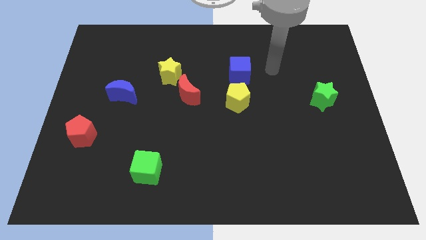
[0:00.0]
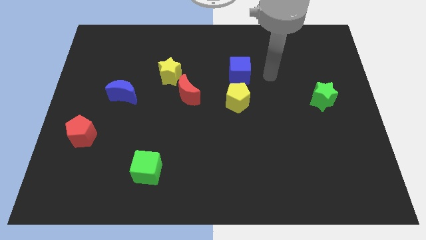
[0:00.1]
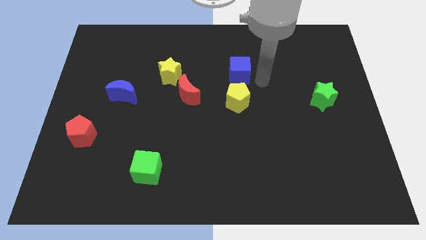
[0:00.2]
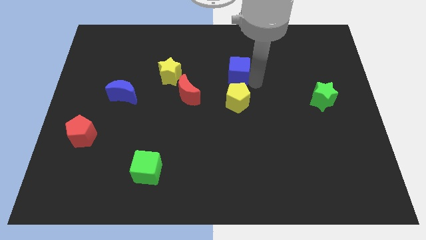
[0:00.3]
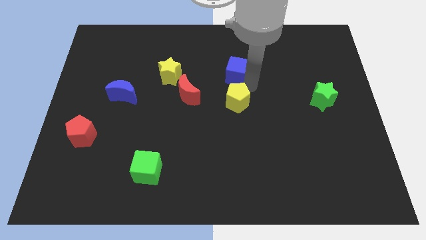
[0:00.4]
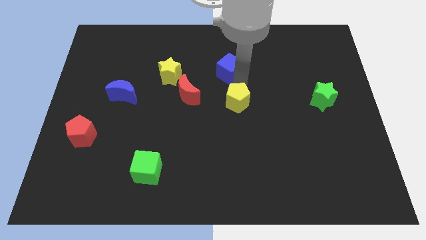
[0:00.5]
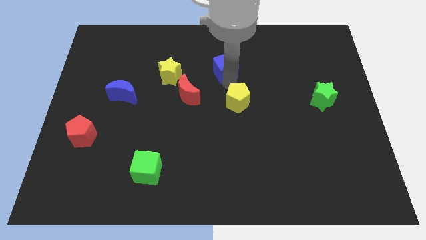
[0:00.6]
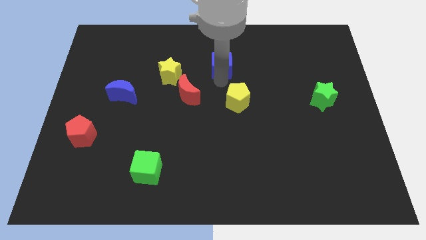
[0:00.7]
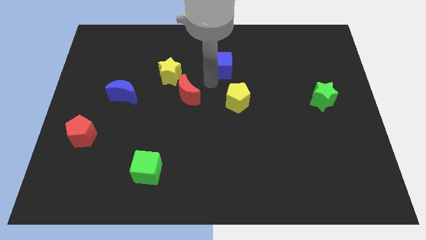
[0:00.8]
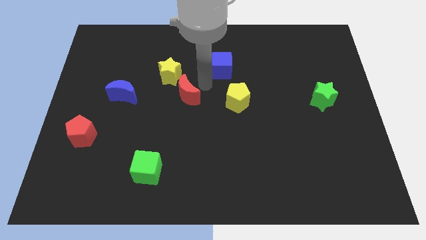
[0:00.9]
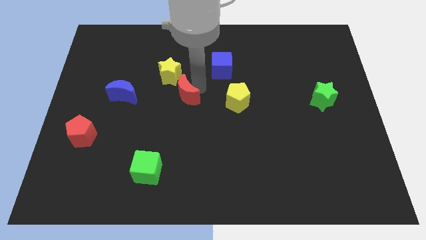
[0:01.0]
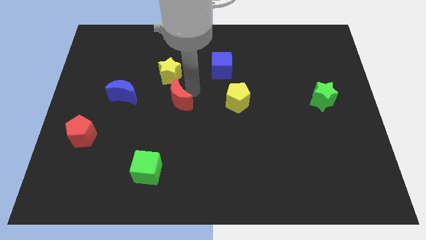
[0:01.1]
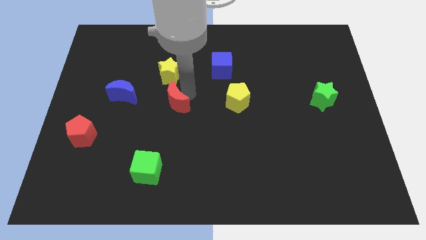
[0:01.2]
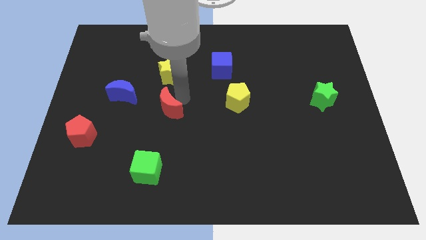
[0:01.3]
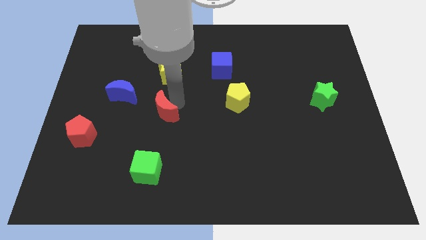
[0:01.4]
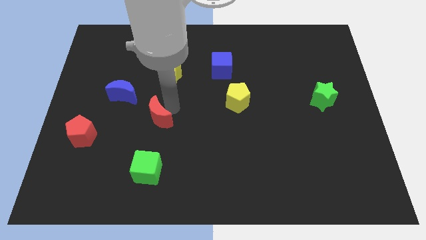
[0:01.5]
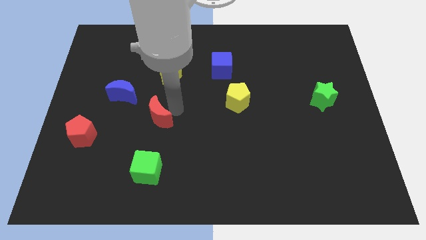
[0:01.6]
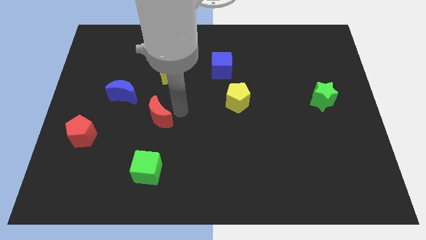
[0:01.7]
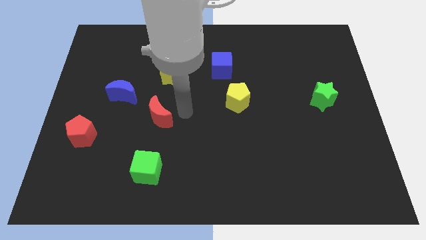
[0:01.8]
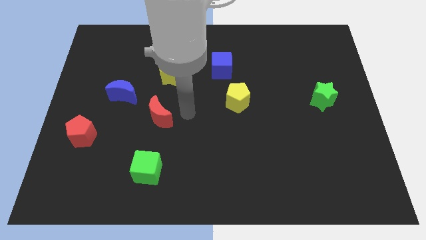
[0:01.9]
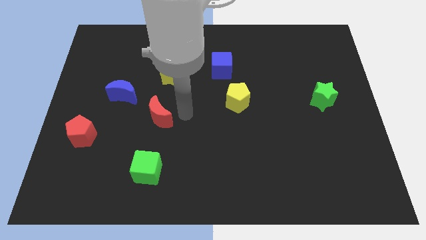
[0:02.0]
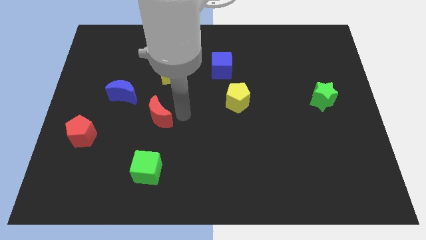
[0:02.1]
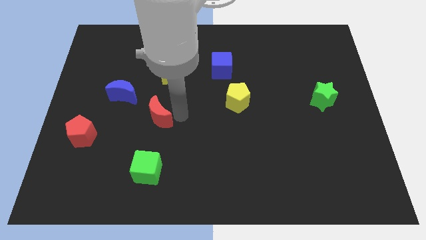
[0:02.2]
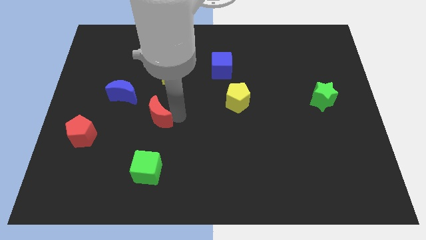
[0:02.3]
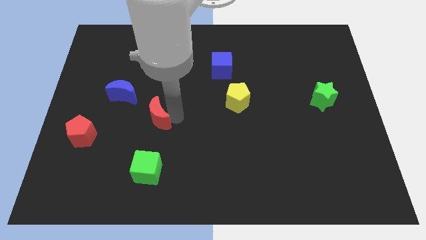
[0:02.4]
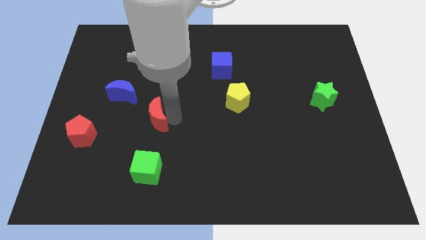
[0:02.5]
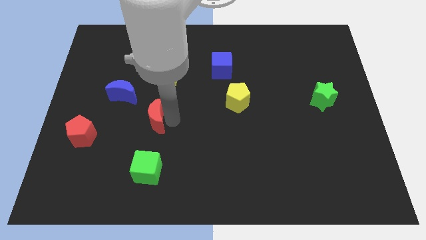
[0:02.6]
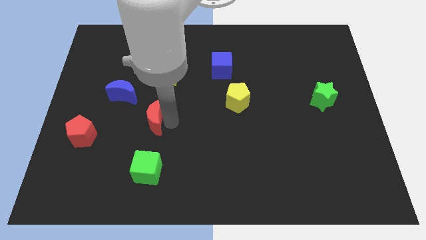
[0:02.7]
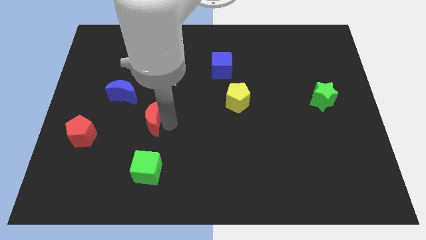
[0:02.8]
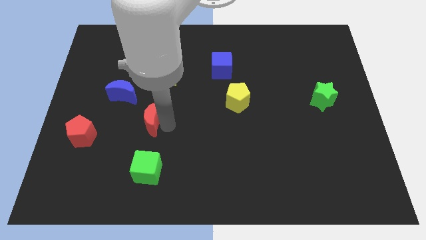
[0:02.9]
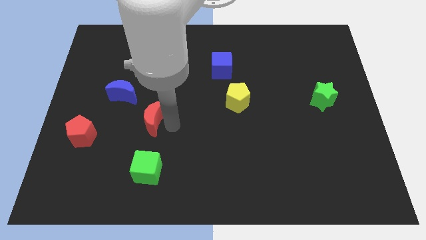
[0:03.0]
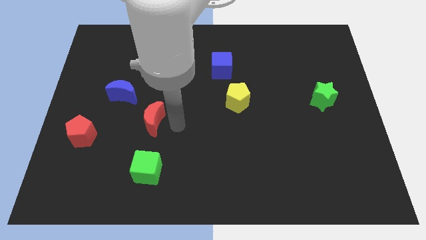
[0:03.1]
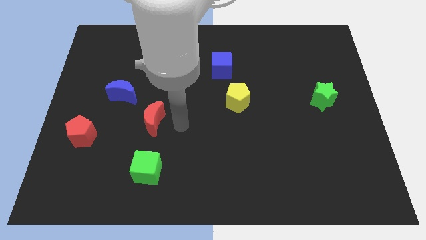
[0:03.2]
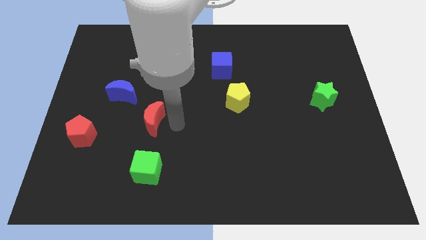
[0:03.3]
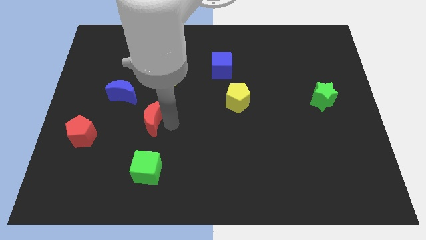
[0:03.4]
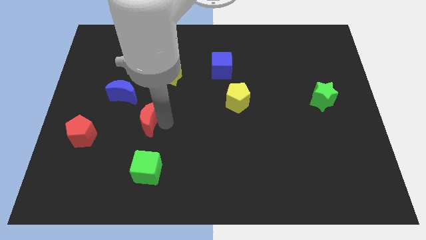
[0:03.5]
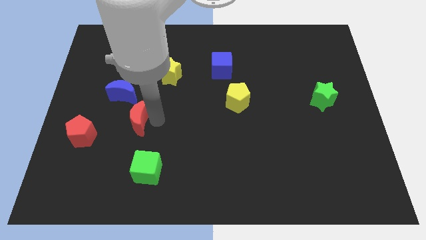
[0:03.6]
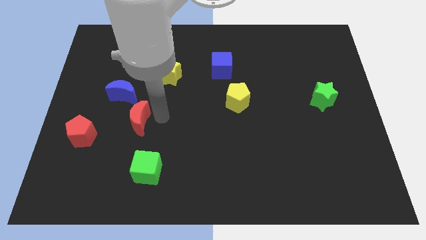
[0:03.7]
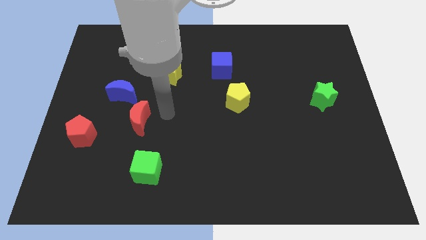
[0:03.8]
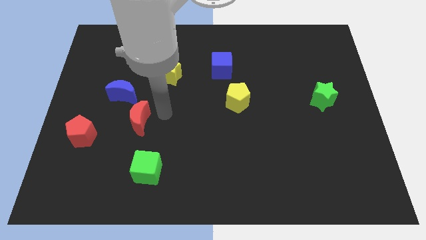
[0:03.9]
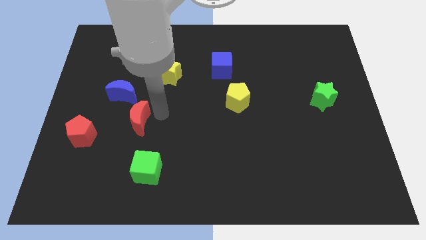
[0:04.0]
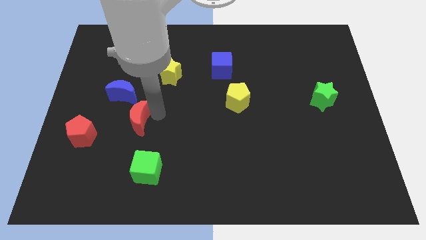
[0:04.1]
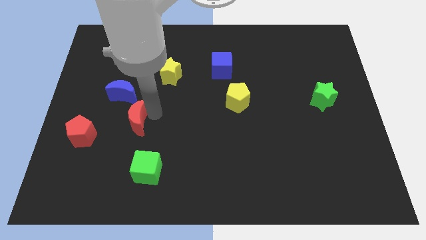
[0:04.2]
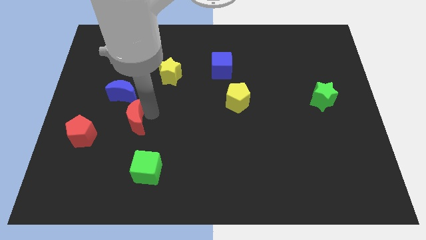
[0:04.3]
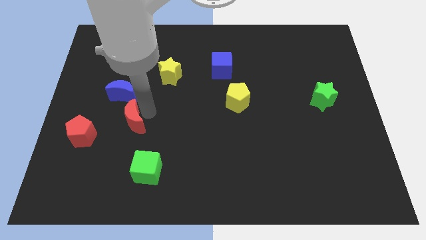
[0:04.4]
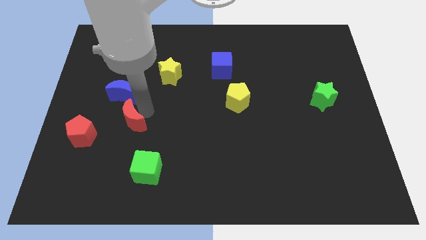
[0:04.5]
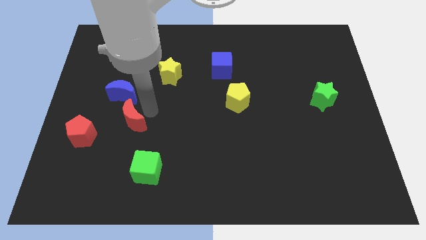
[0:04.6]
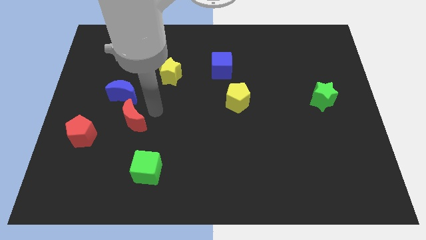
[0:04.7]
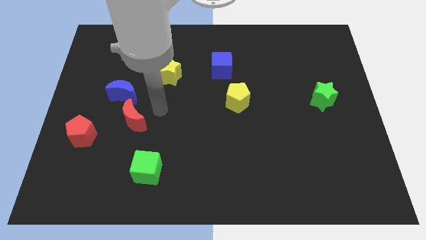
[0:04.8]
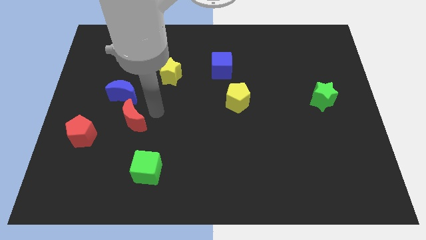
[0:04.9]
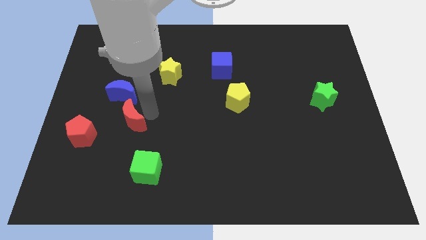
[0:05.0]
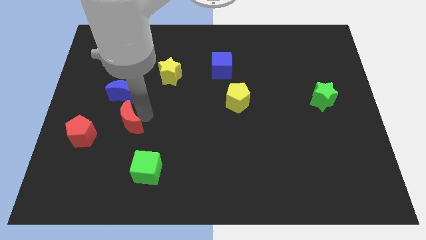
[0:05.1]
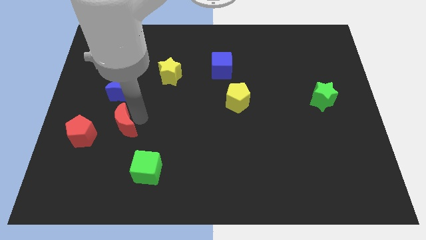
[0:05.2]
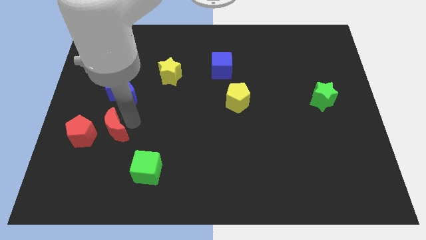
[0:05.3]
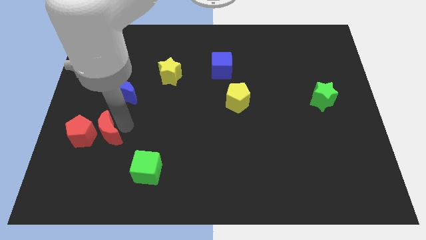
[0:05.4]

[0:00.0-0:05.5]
push the red moon towards the red pentagon

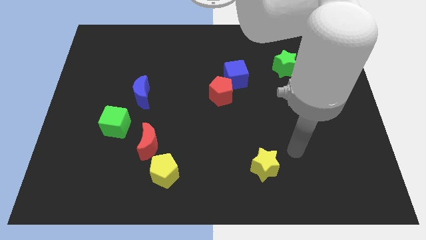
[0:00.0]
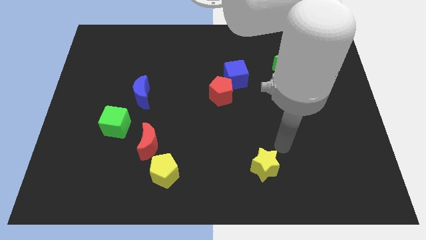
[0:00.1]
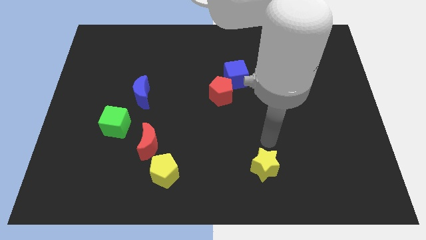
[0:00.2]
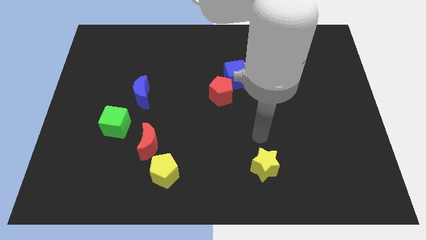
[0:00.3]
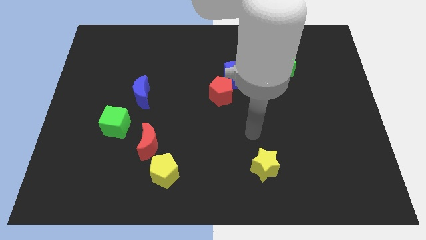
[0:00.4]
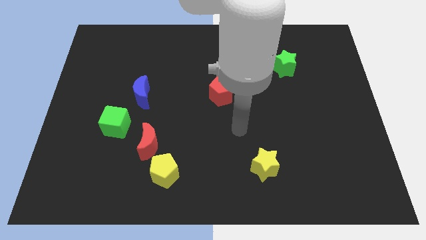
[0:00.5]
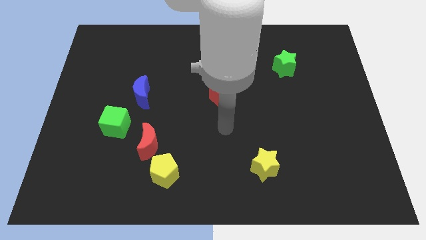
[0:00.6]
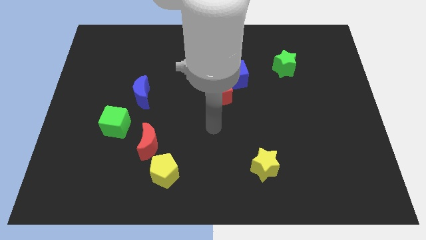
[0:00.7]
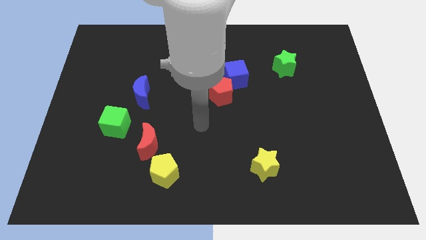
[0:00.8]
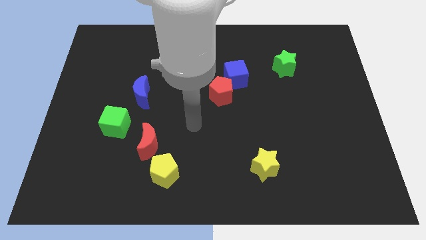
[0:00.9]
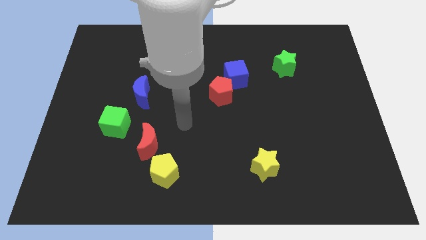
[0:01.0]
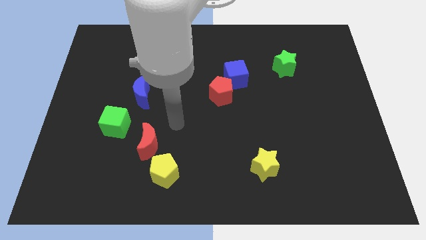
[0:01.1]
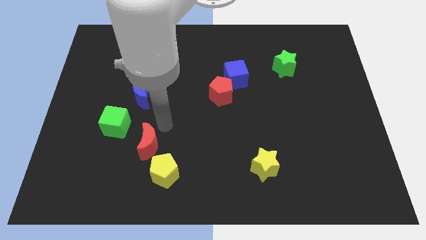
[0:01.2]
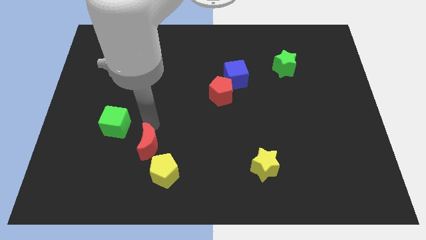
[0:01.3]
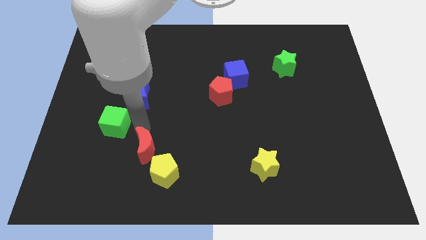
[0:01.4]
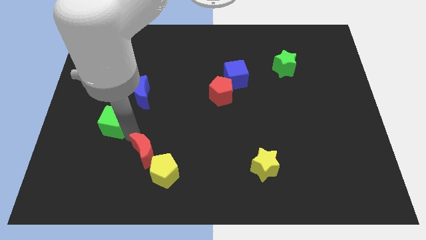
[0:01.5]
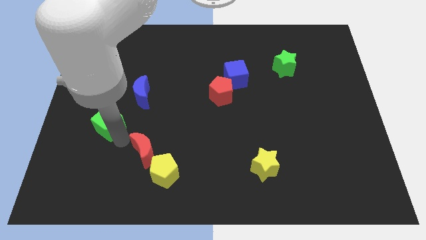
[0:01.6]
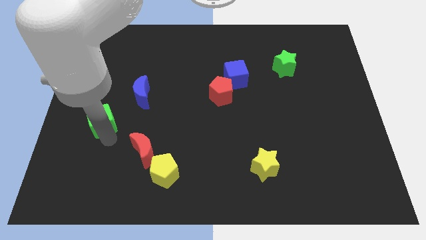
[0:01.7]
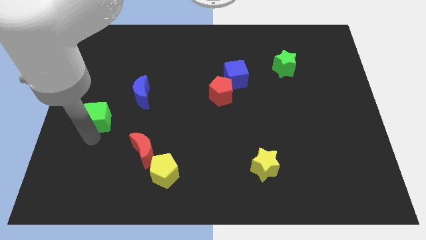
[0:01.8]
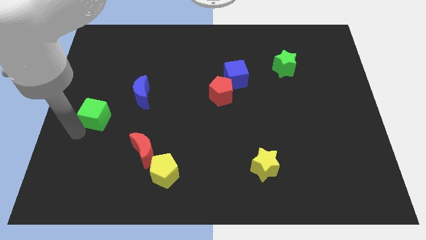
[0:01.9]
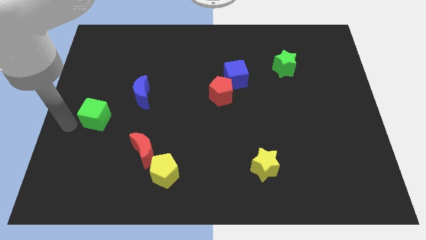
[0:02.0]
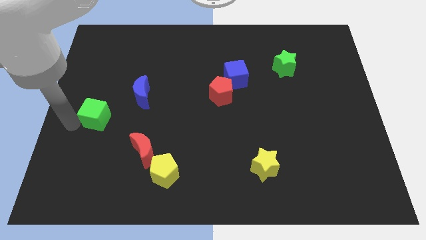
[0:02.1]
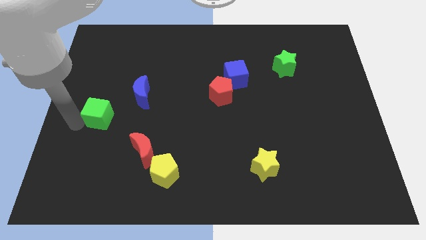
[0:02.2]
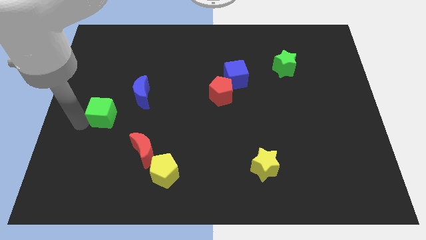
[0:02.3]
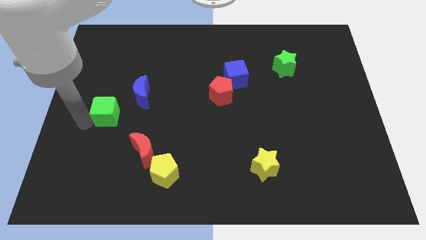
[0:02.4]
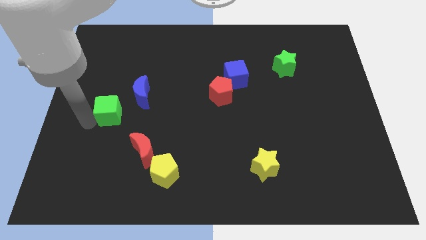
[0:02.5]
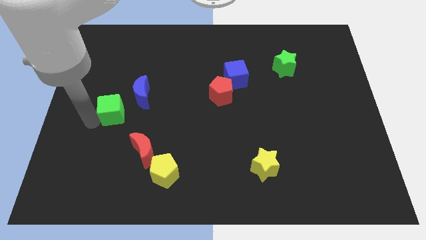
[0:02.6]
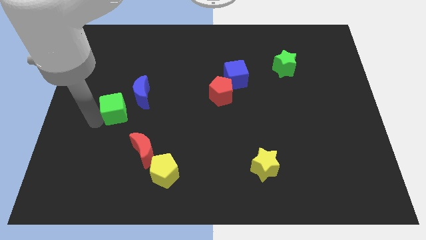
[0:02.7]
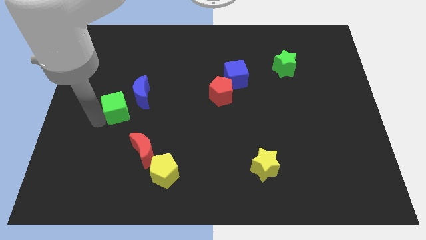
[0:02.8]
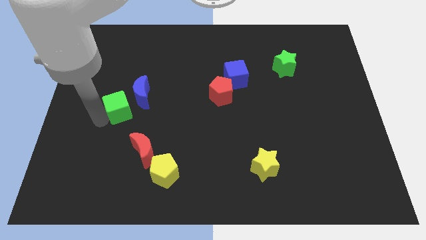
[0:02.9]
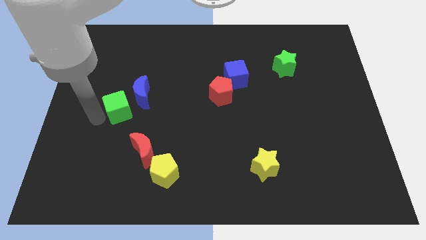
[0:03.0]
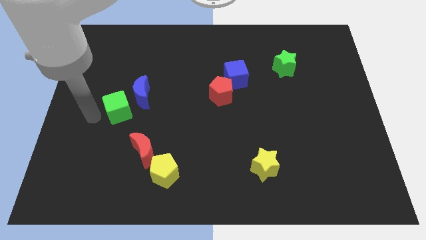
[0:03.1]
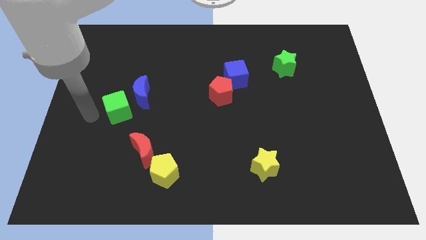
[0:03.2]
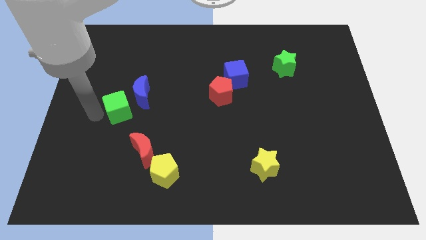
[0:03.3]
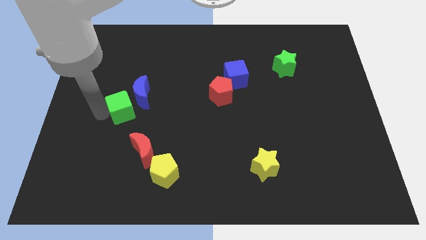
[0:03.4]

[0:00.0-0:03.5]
put the green cube next to the blue moon
